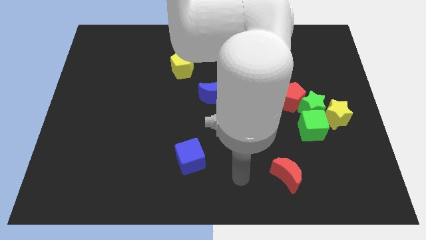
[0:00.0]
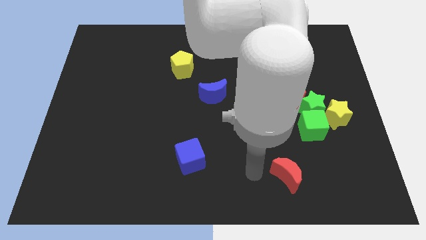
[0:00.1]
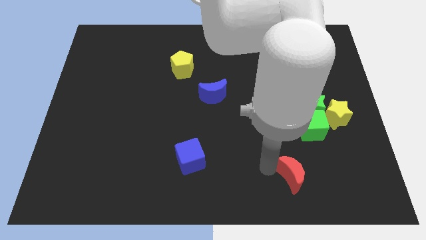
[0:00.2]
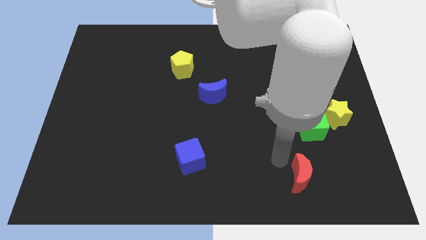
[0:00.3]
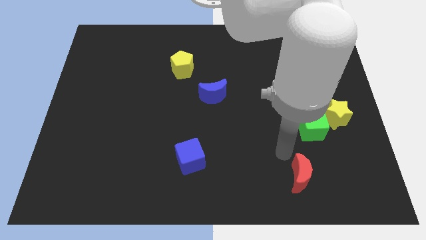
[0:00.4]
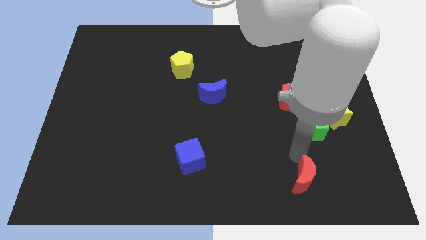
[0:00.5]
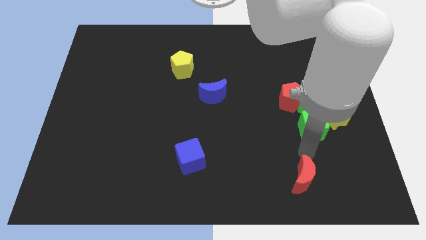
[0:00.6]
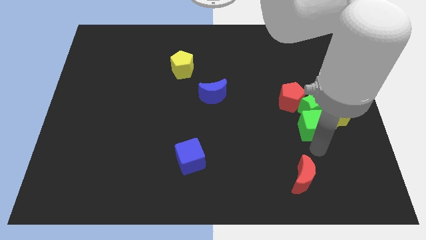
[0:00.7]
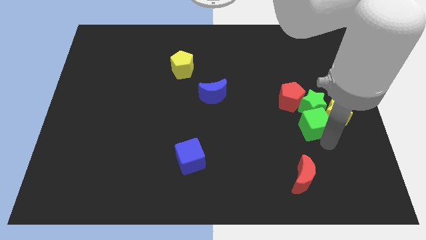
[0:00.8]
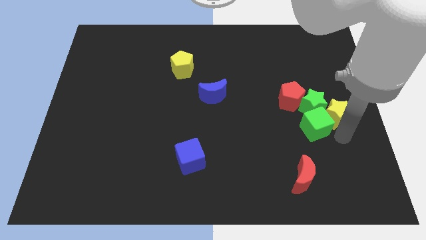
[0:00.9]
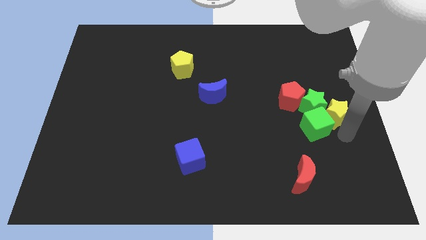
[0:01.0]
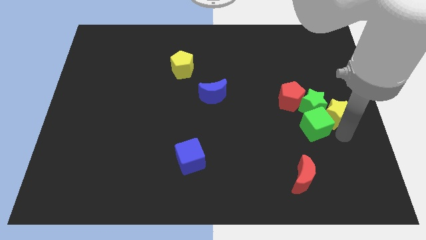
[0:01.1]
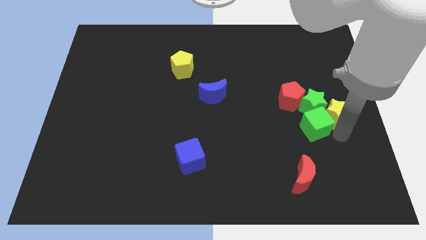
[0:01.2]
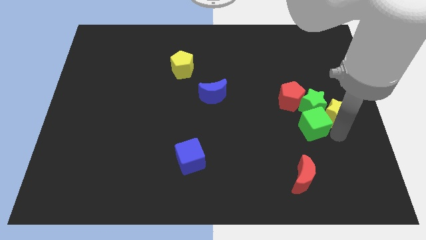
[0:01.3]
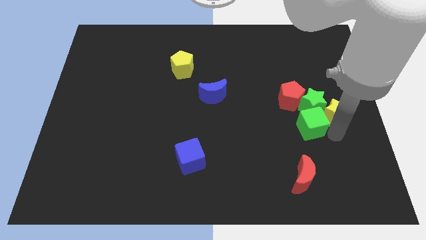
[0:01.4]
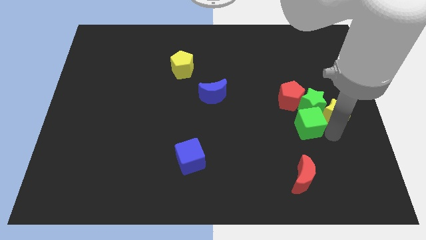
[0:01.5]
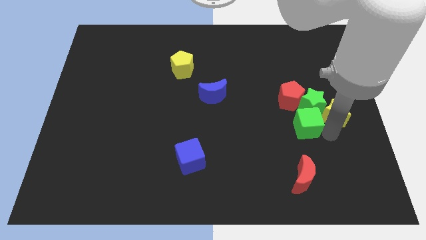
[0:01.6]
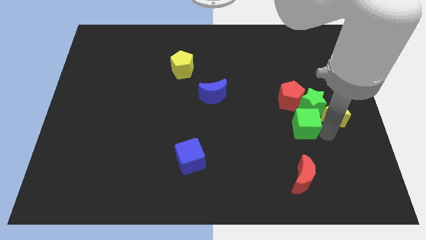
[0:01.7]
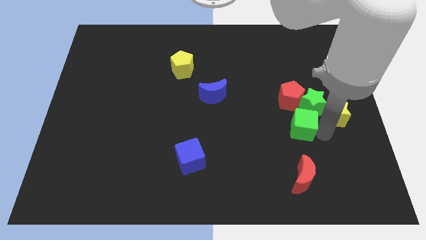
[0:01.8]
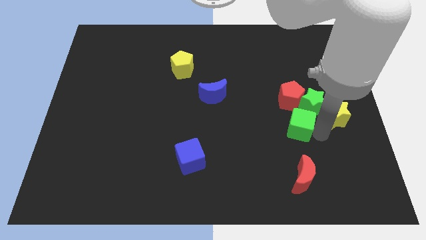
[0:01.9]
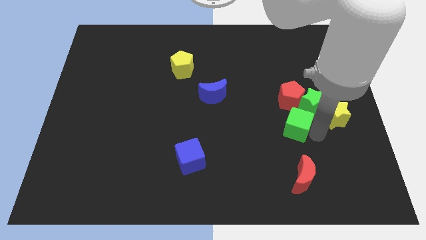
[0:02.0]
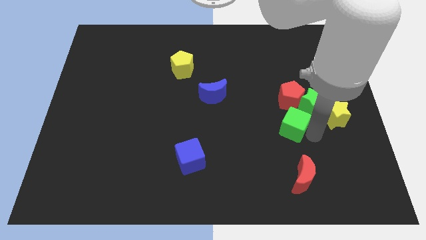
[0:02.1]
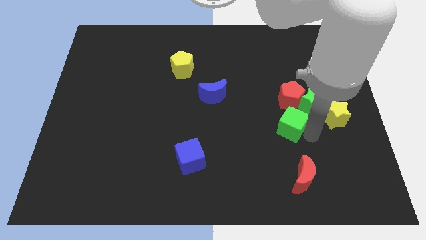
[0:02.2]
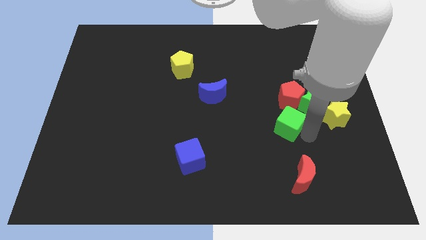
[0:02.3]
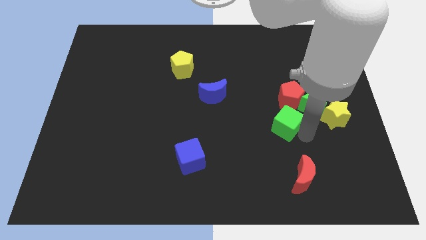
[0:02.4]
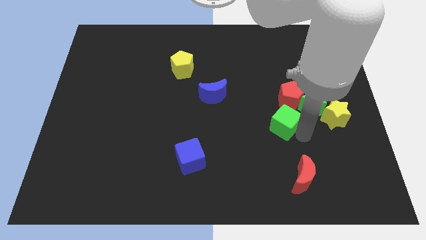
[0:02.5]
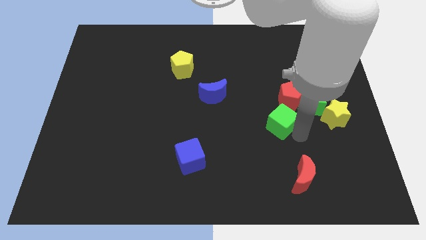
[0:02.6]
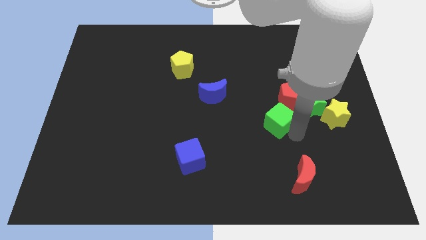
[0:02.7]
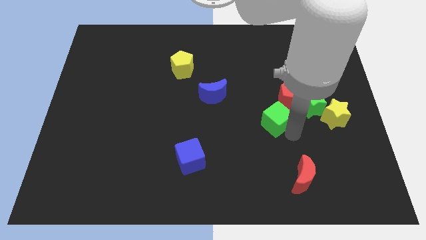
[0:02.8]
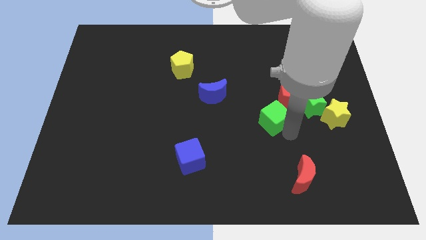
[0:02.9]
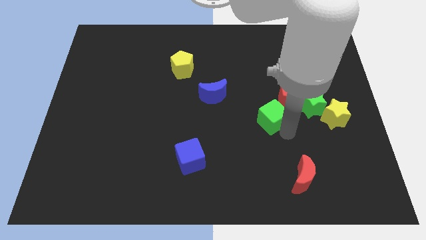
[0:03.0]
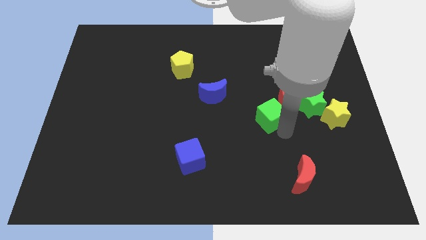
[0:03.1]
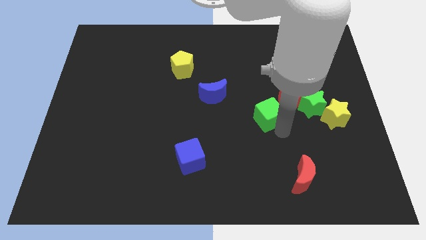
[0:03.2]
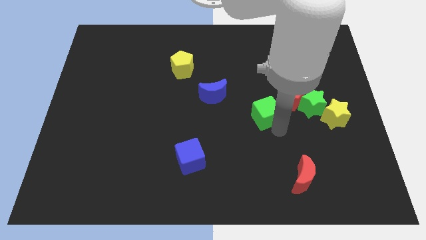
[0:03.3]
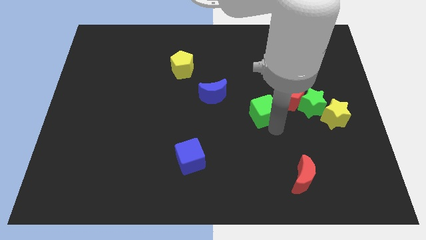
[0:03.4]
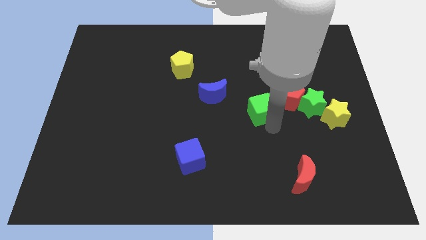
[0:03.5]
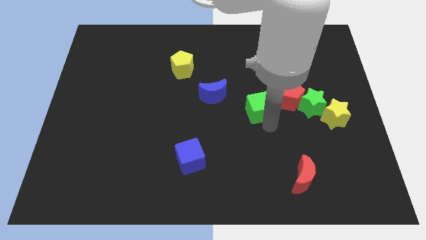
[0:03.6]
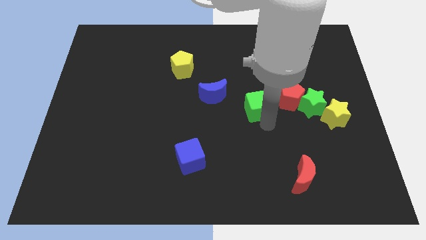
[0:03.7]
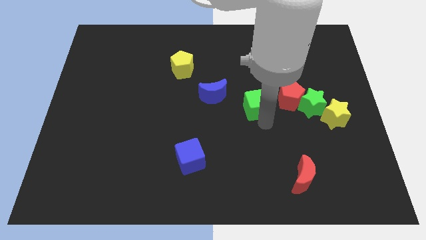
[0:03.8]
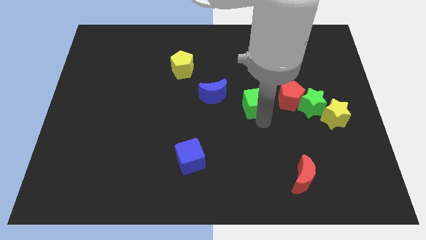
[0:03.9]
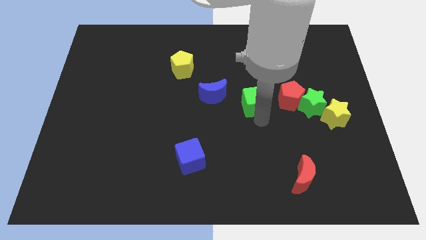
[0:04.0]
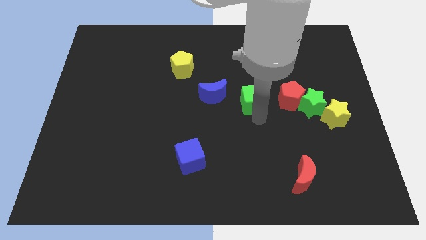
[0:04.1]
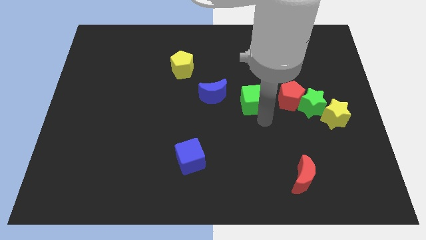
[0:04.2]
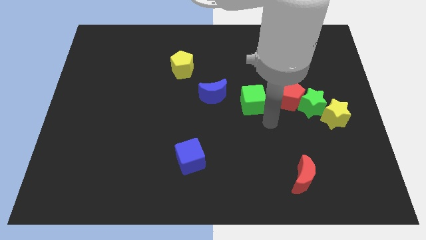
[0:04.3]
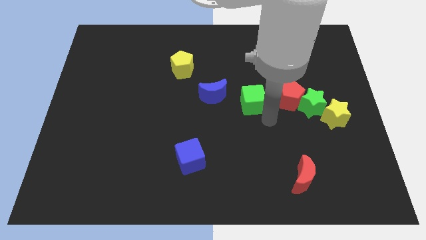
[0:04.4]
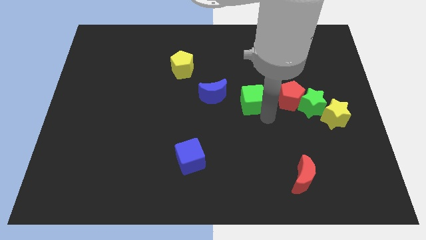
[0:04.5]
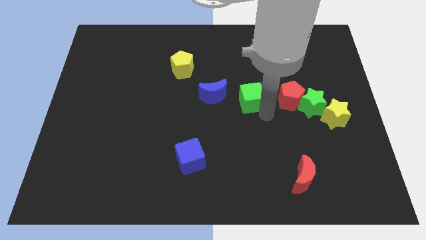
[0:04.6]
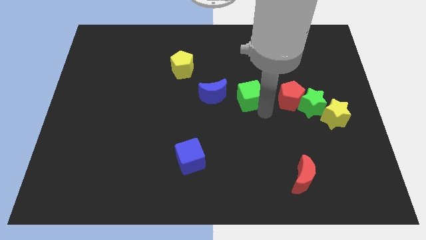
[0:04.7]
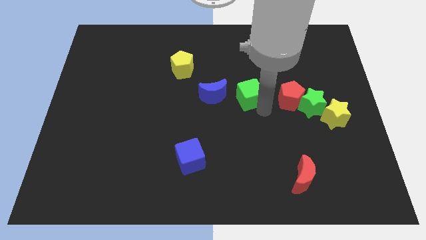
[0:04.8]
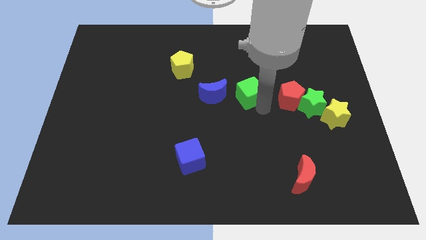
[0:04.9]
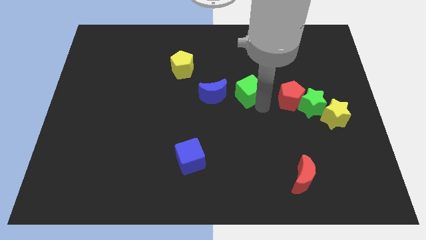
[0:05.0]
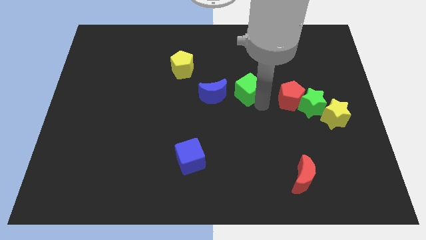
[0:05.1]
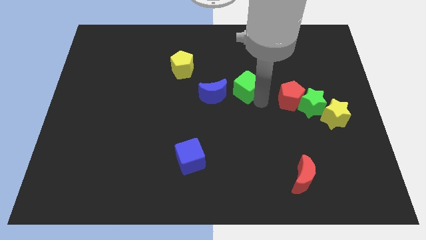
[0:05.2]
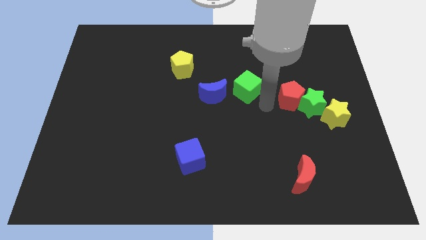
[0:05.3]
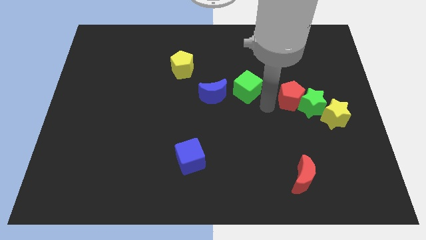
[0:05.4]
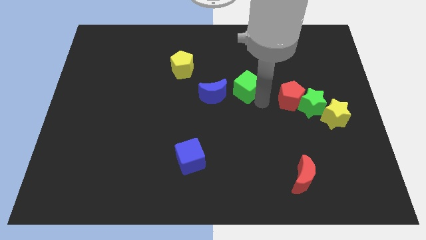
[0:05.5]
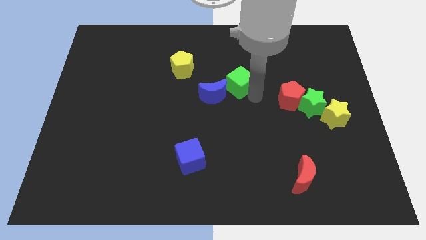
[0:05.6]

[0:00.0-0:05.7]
push the green cube up and left

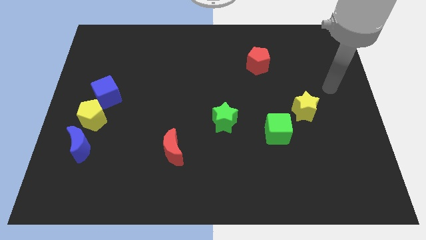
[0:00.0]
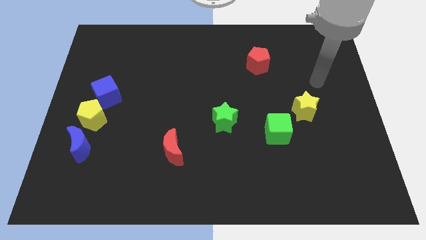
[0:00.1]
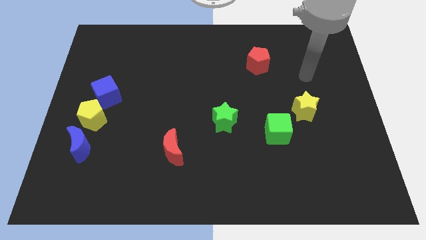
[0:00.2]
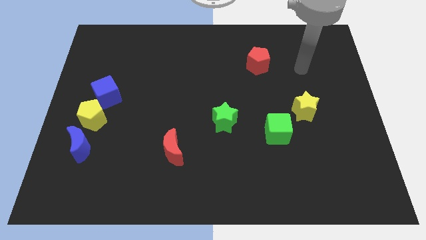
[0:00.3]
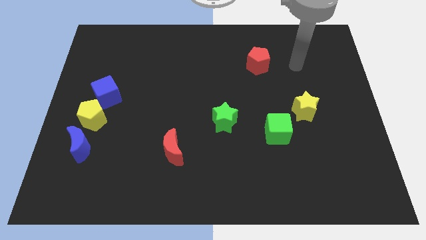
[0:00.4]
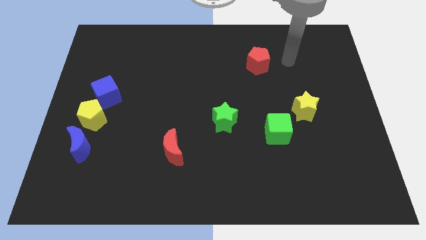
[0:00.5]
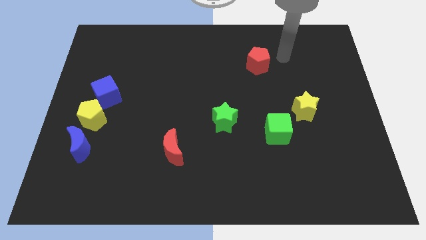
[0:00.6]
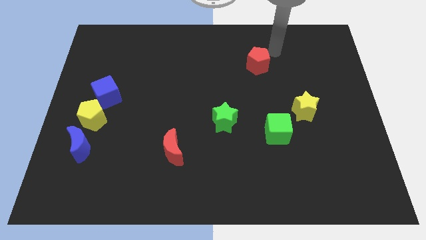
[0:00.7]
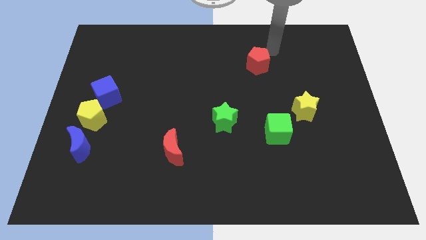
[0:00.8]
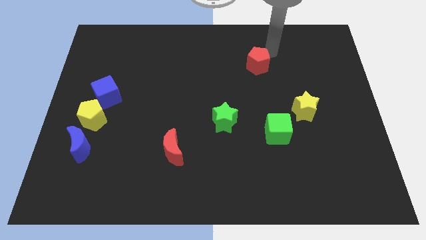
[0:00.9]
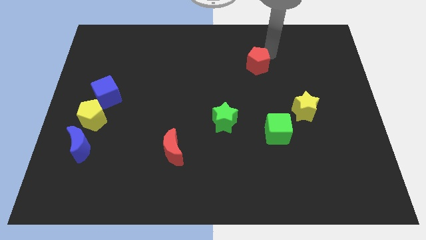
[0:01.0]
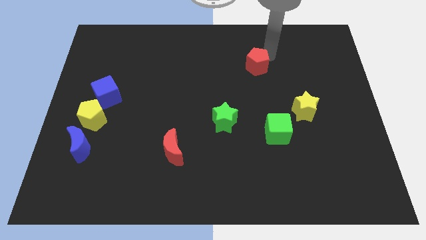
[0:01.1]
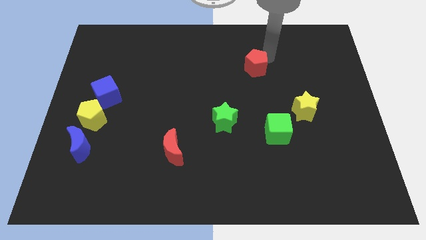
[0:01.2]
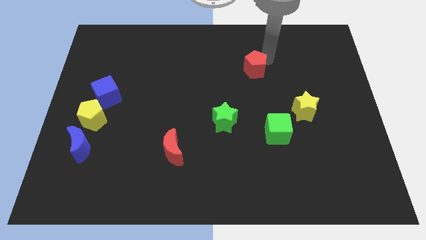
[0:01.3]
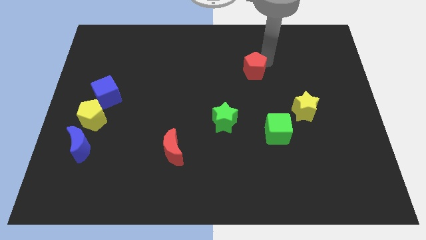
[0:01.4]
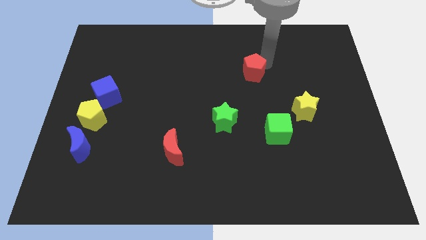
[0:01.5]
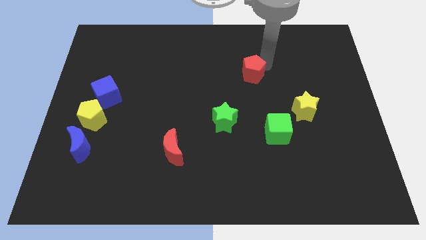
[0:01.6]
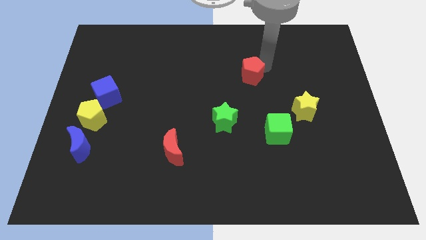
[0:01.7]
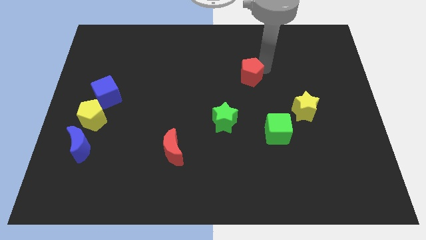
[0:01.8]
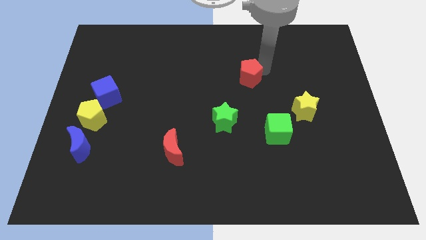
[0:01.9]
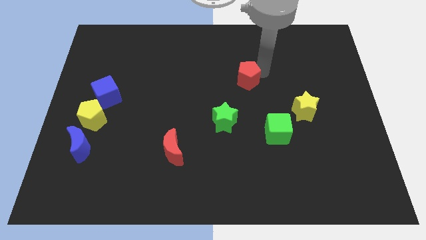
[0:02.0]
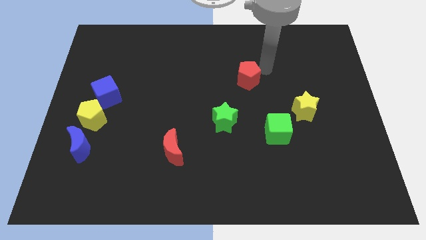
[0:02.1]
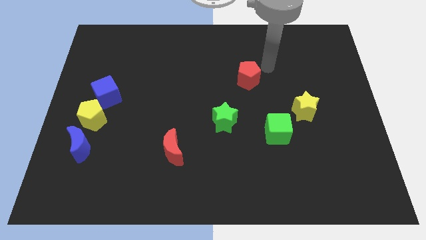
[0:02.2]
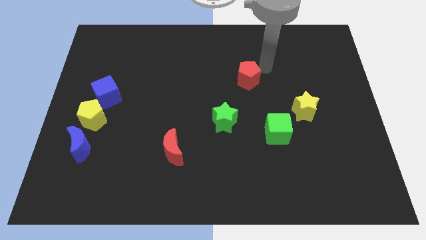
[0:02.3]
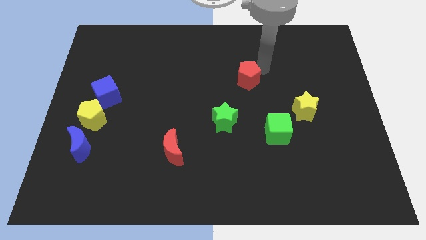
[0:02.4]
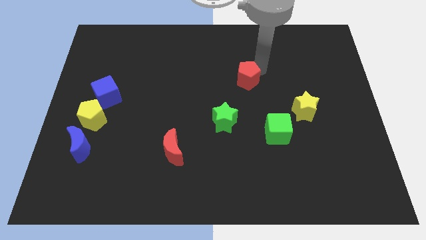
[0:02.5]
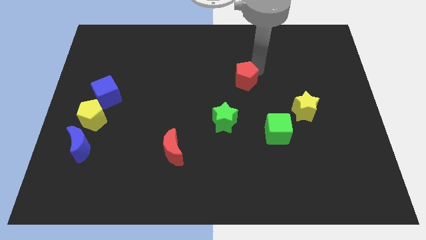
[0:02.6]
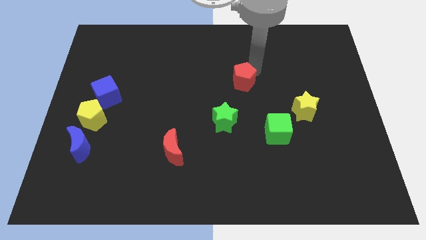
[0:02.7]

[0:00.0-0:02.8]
move the red pentagon diagonally down and to the left slightly
